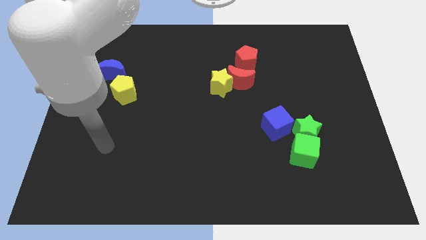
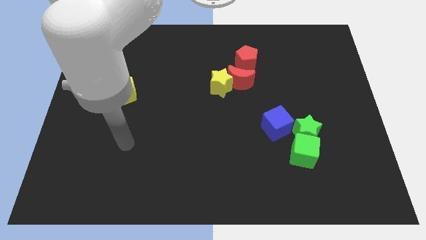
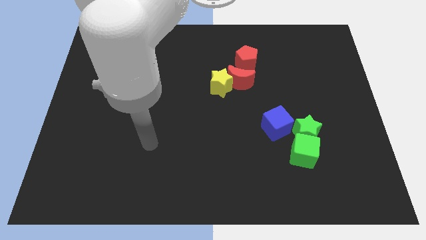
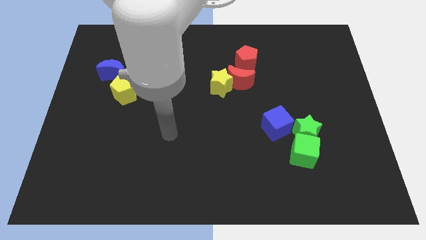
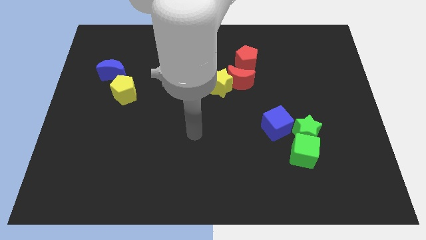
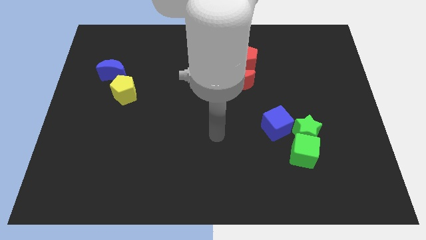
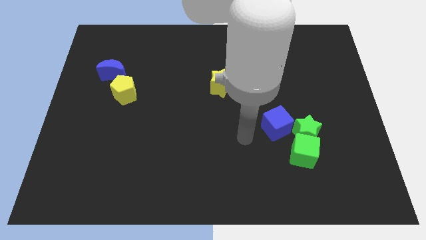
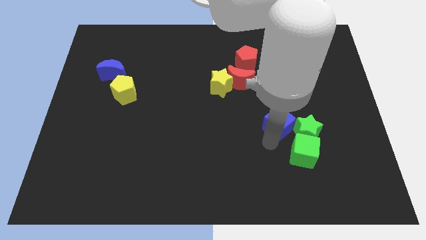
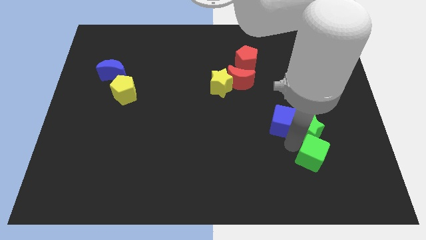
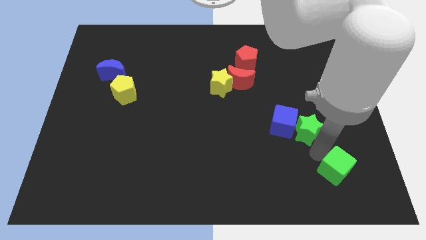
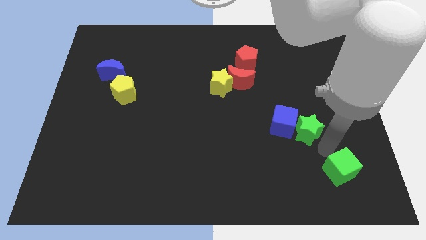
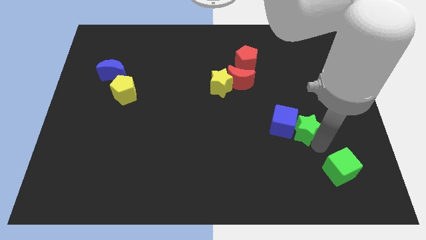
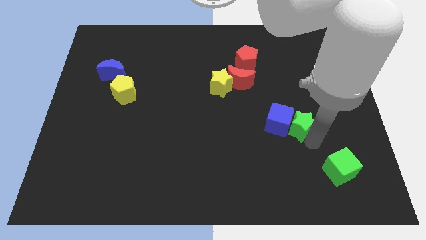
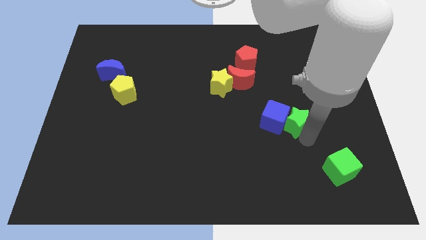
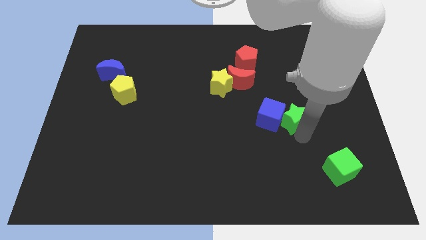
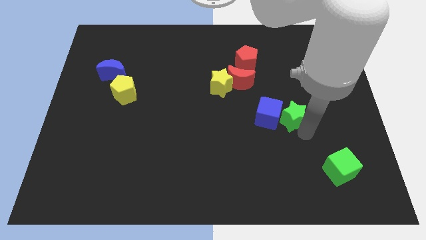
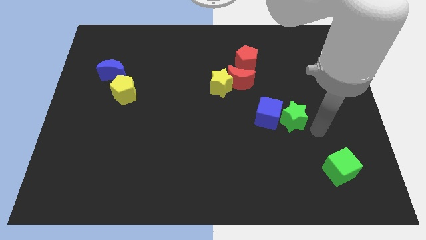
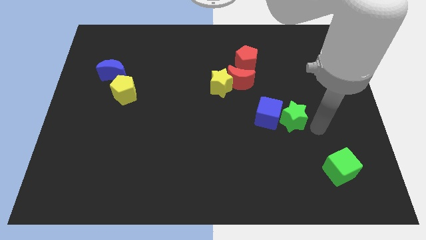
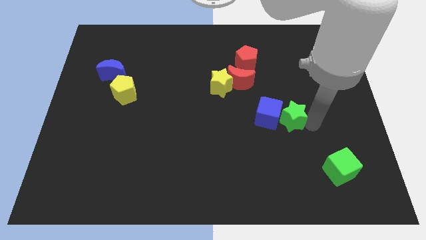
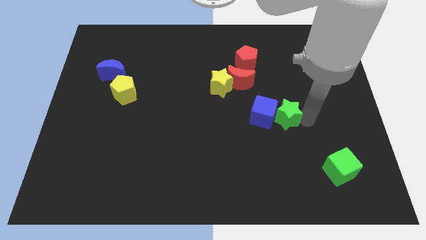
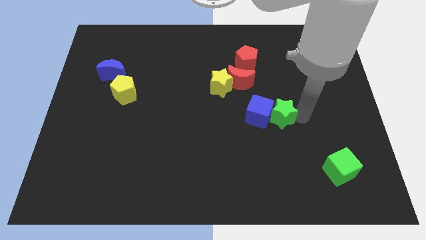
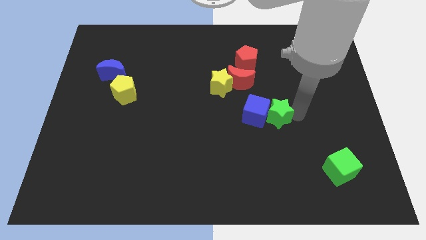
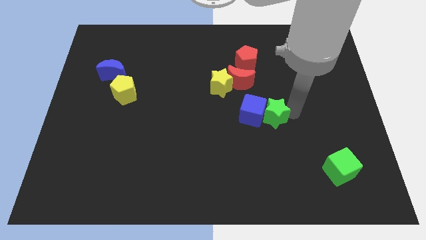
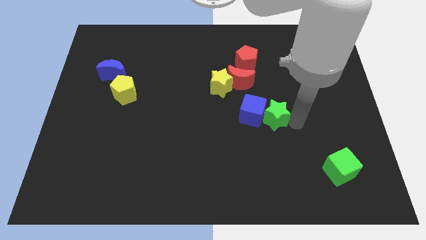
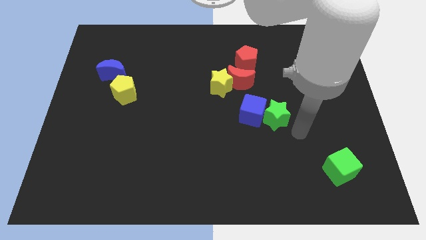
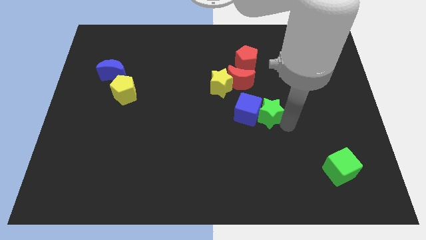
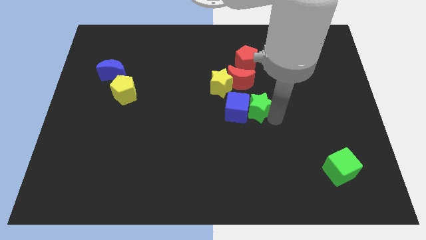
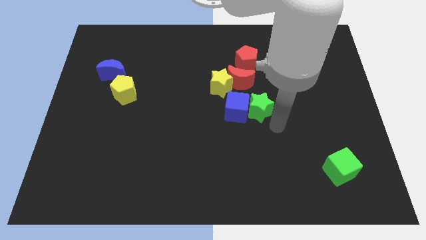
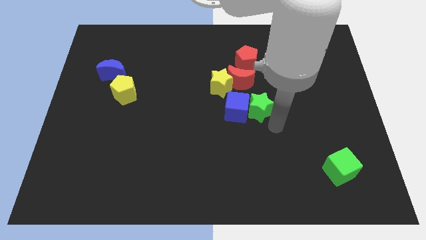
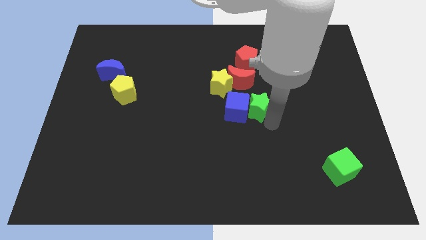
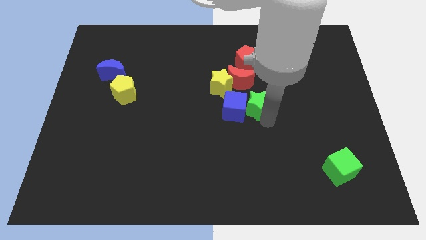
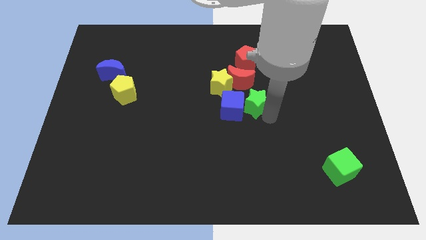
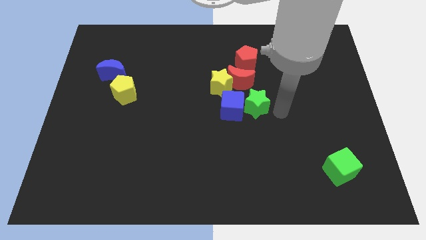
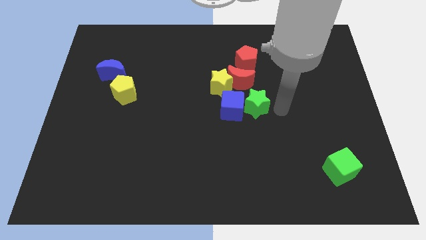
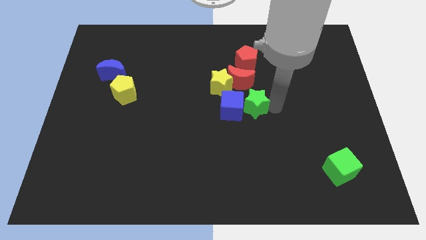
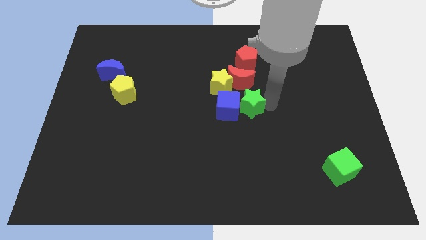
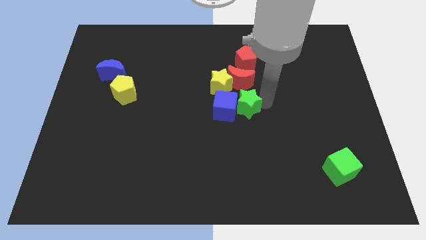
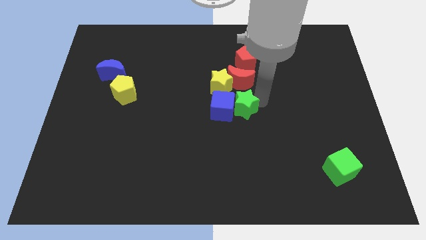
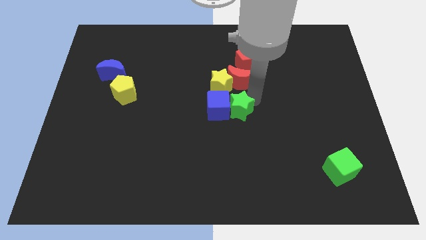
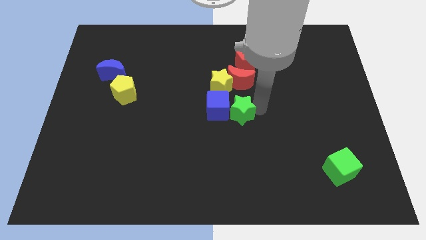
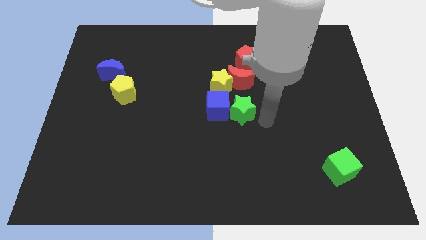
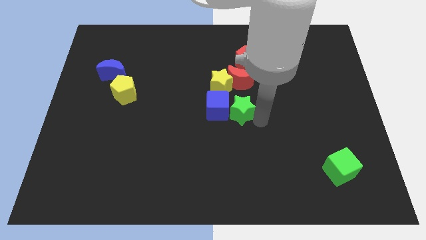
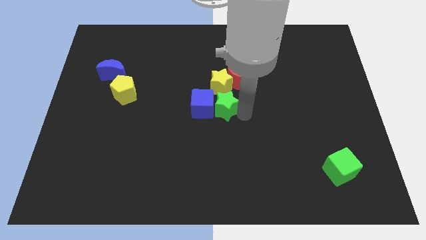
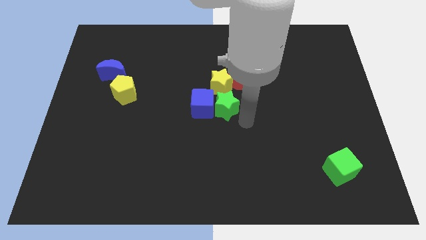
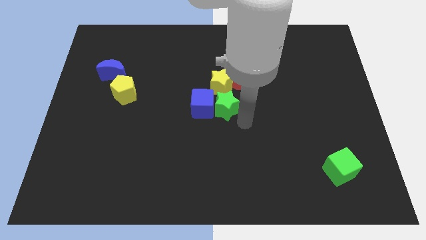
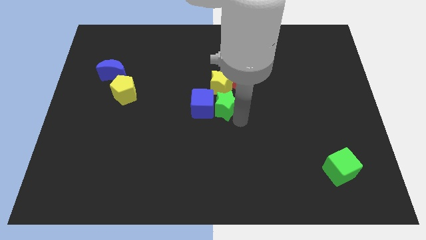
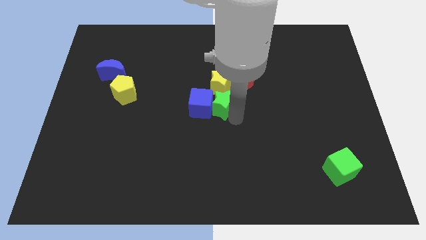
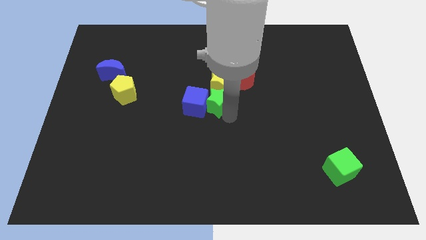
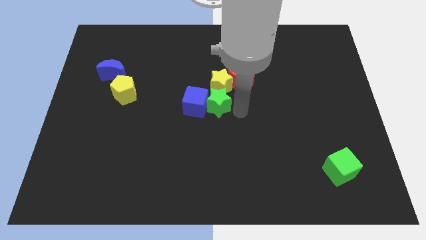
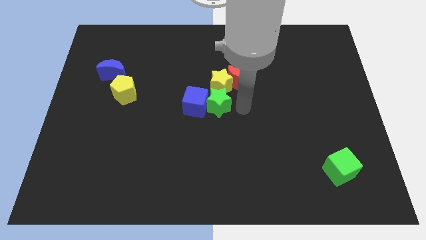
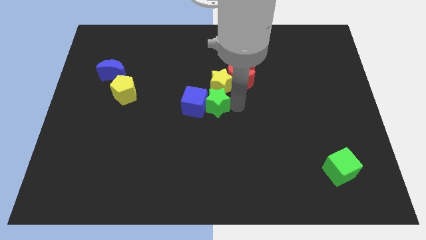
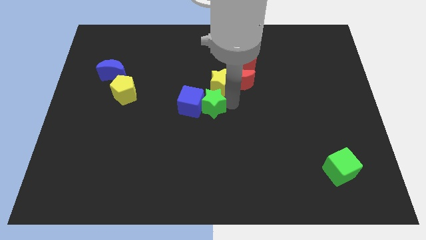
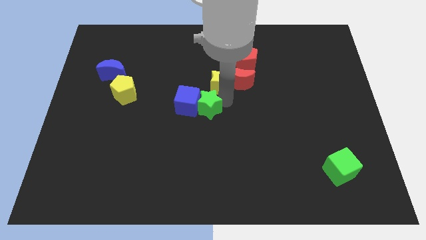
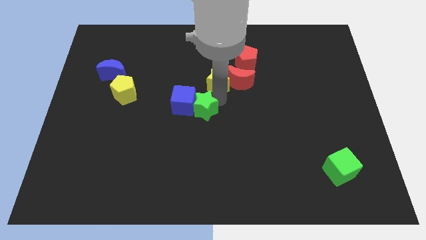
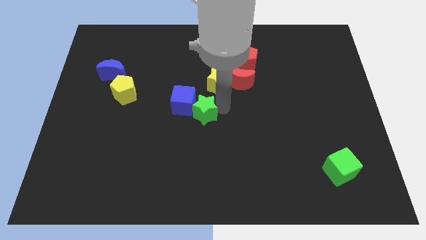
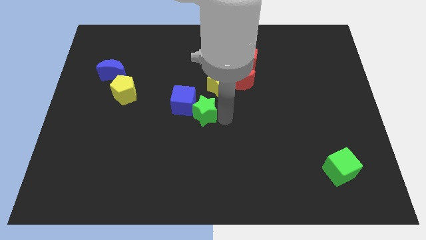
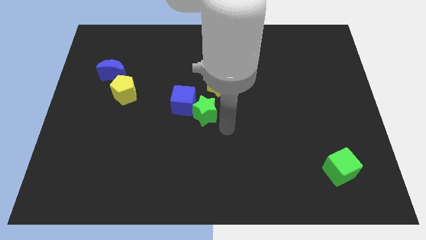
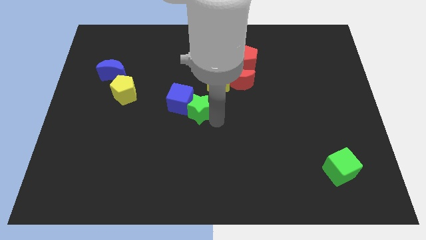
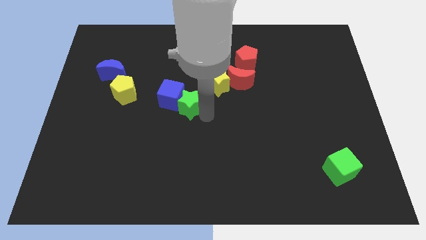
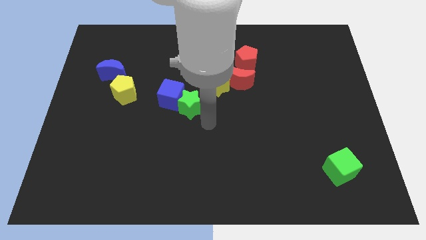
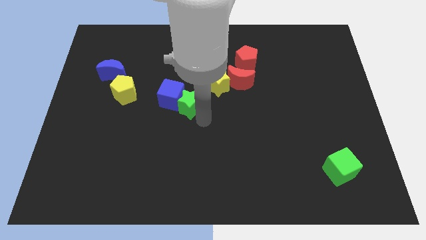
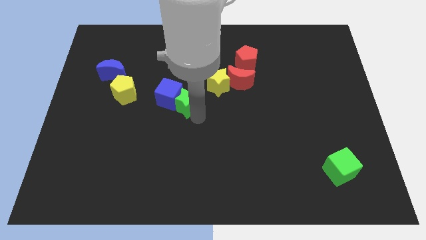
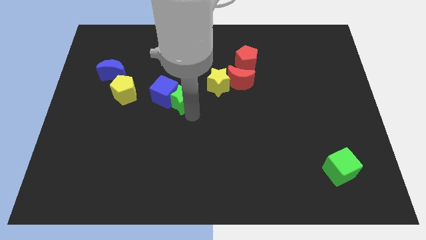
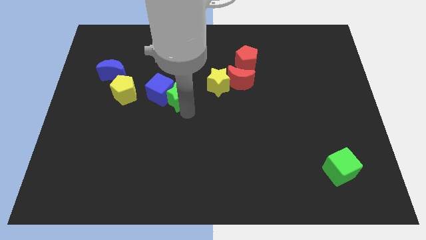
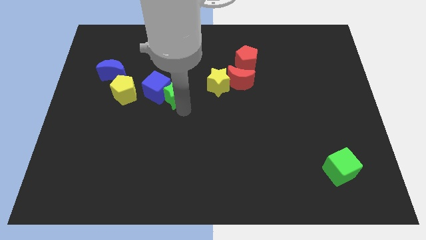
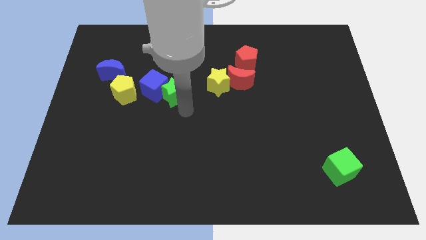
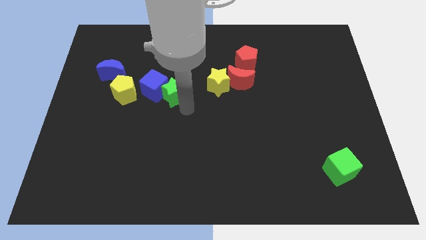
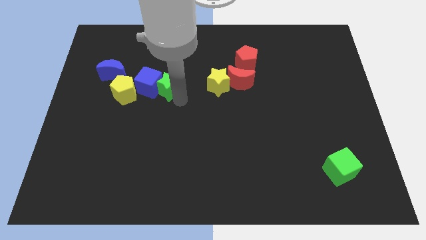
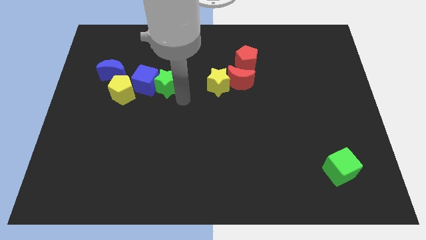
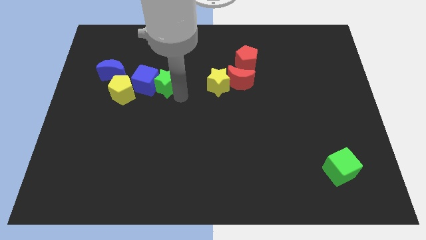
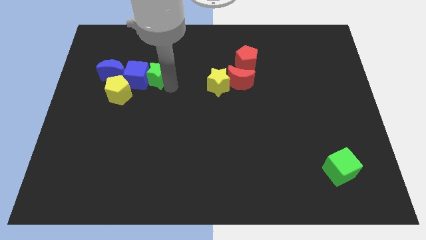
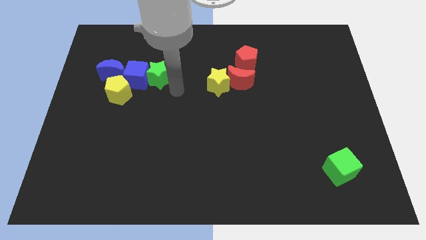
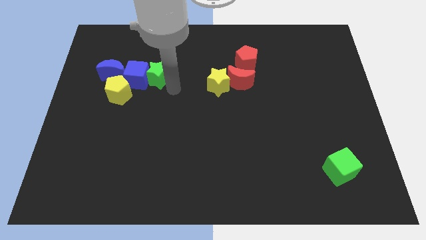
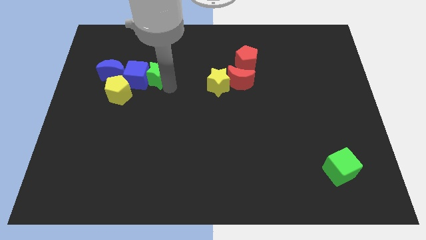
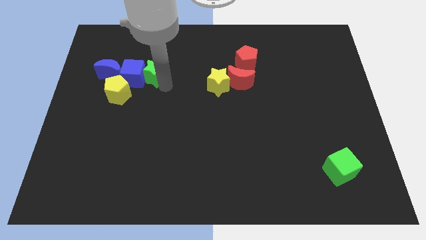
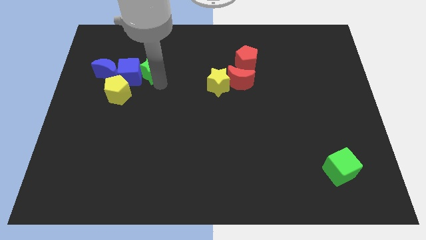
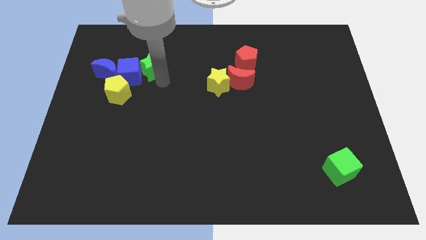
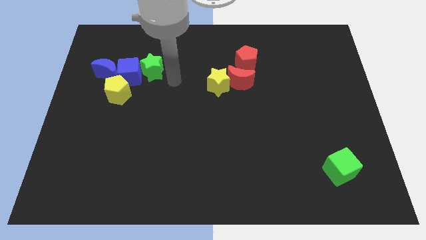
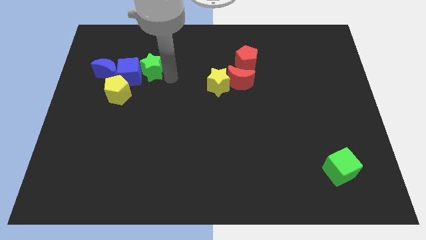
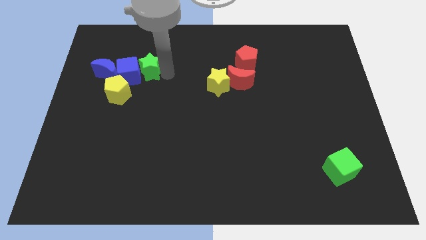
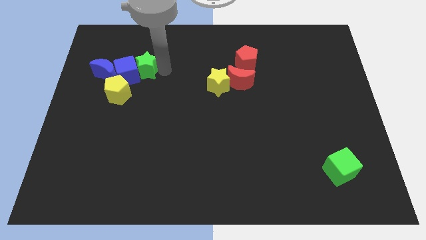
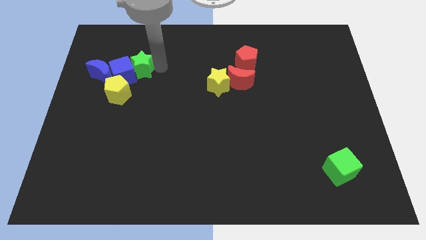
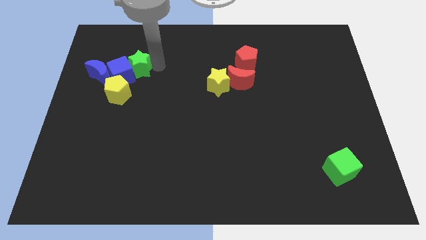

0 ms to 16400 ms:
slide the green star to the top right of the blue moon
